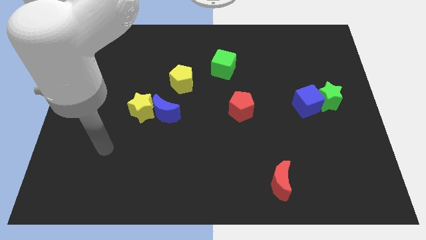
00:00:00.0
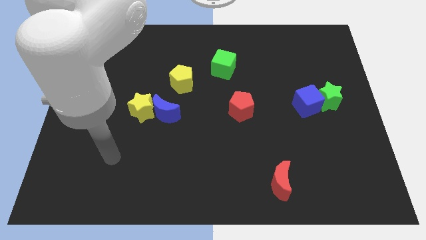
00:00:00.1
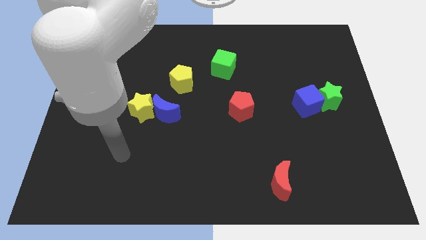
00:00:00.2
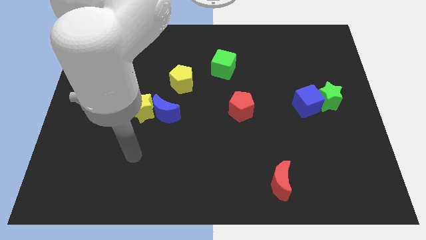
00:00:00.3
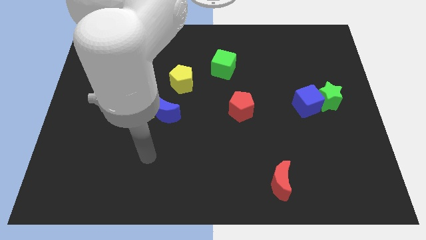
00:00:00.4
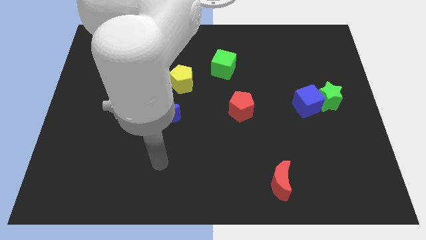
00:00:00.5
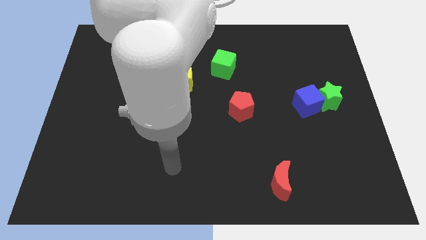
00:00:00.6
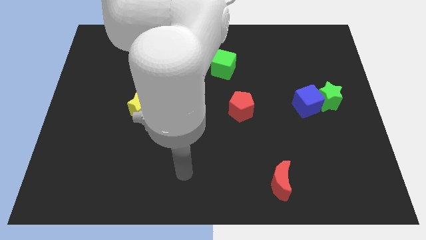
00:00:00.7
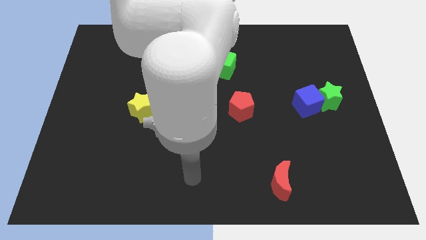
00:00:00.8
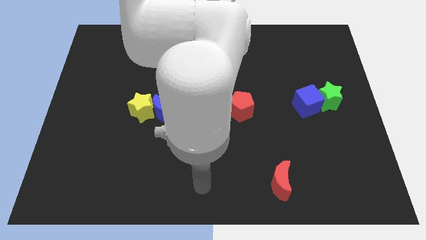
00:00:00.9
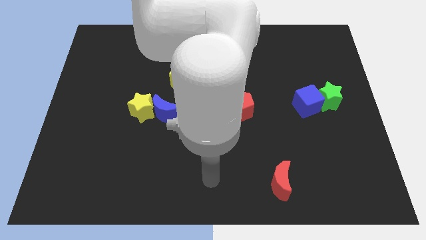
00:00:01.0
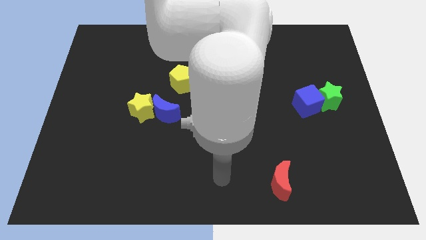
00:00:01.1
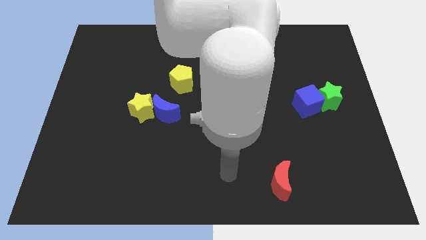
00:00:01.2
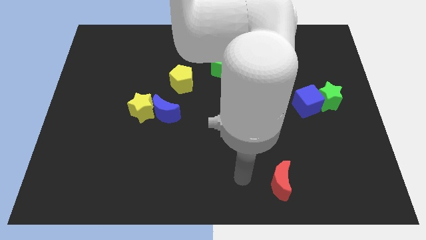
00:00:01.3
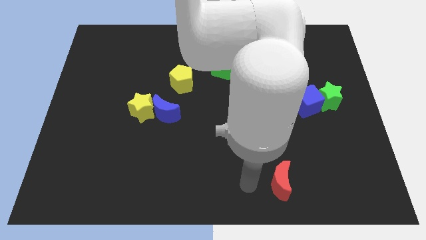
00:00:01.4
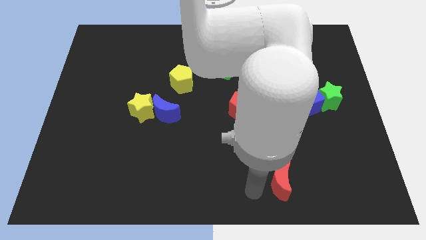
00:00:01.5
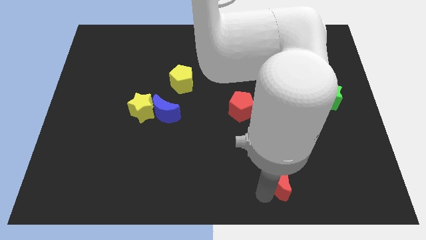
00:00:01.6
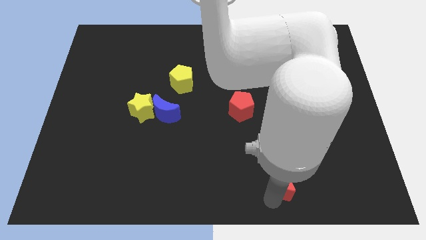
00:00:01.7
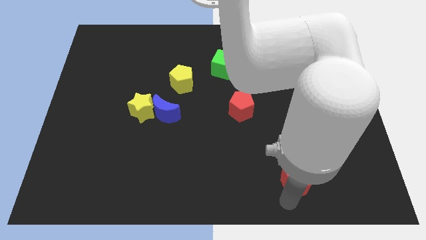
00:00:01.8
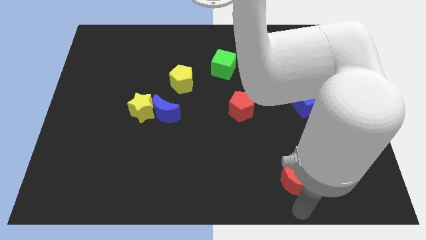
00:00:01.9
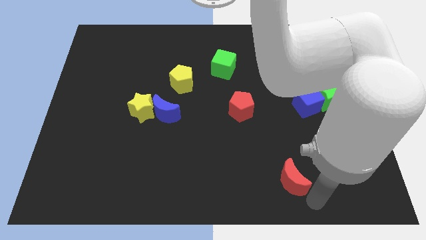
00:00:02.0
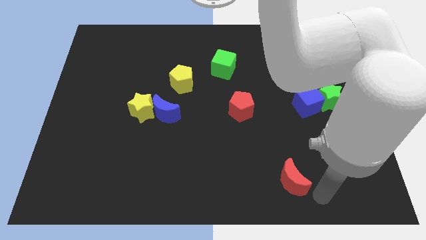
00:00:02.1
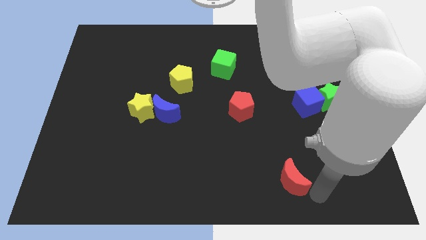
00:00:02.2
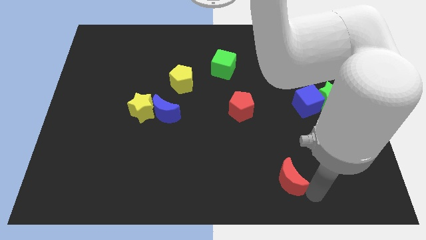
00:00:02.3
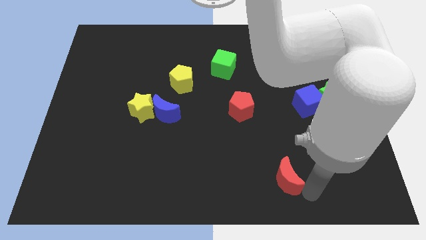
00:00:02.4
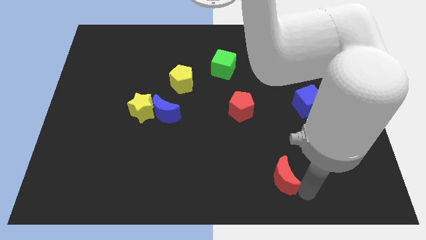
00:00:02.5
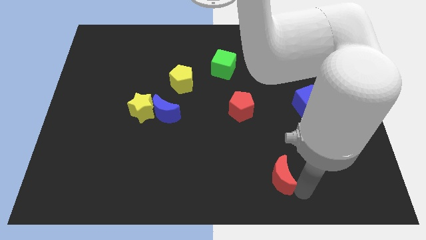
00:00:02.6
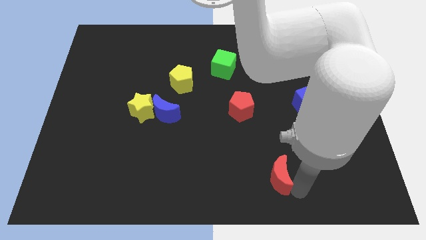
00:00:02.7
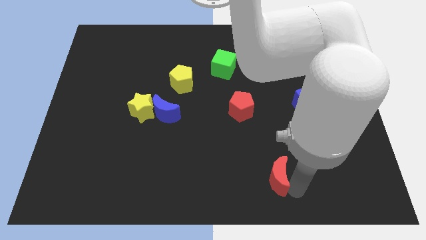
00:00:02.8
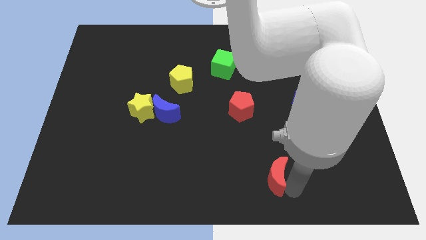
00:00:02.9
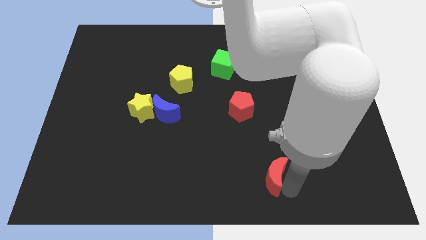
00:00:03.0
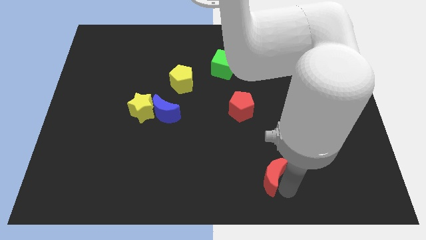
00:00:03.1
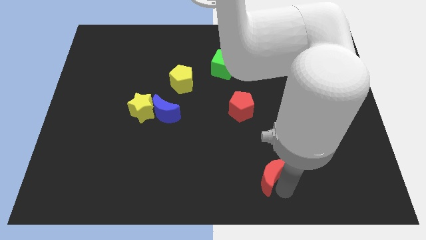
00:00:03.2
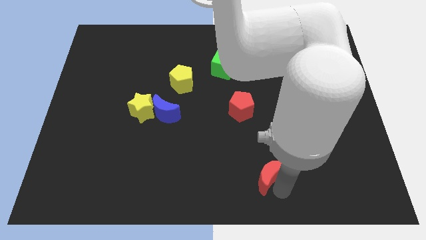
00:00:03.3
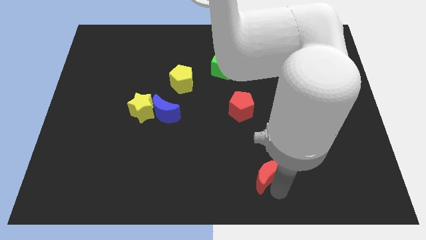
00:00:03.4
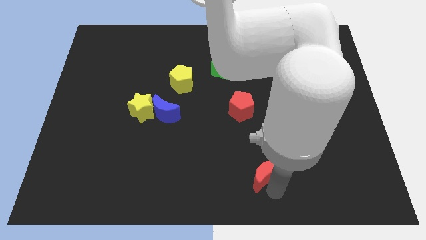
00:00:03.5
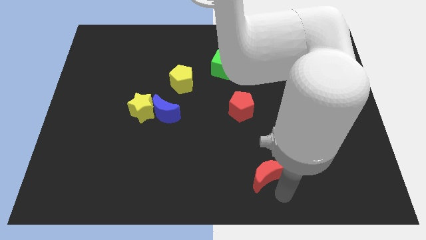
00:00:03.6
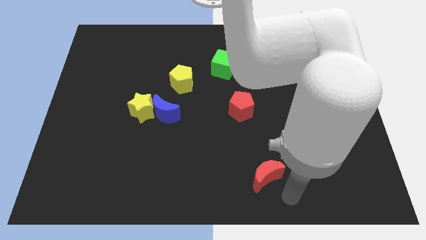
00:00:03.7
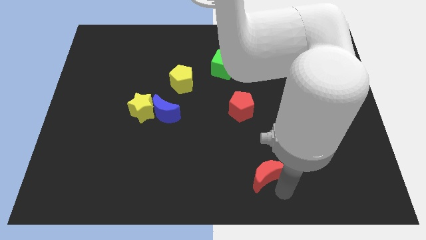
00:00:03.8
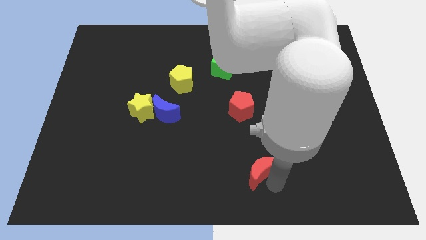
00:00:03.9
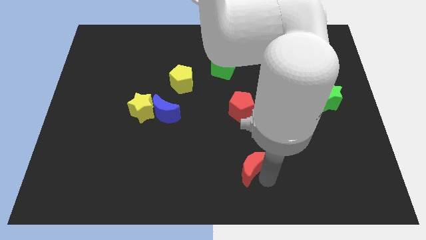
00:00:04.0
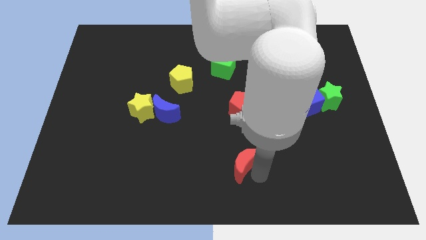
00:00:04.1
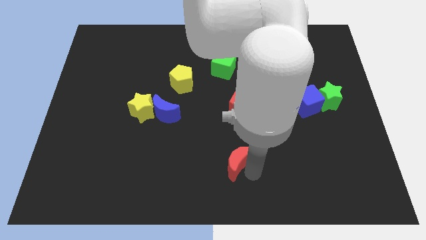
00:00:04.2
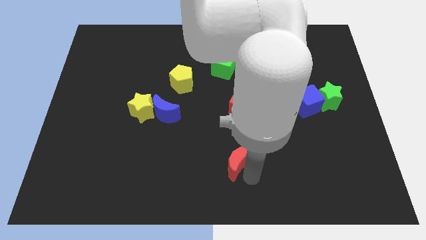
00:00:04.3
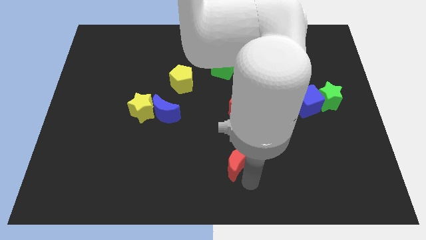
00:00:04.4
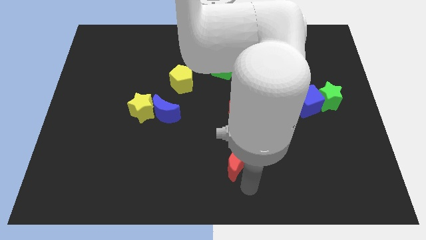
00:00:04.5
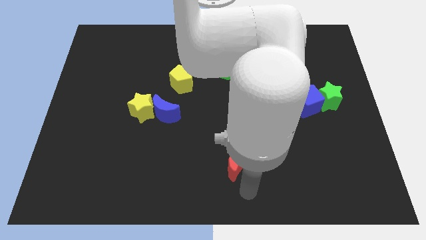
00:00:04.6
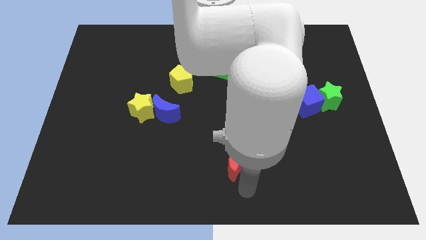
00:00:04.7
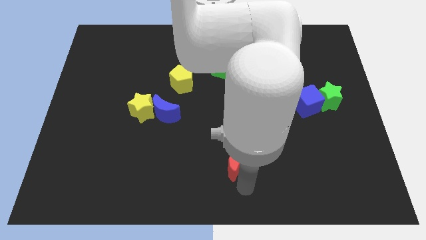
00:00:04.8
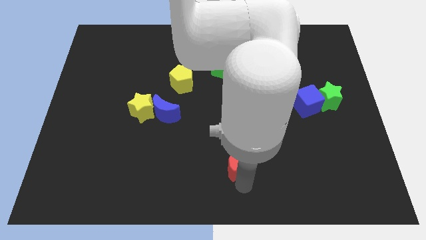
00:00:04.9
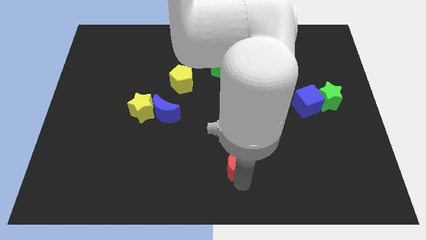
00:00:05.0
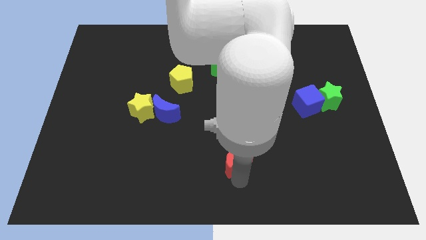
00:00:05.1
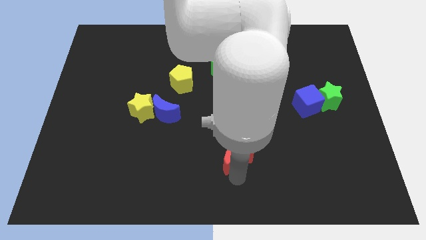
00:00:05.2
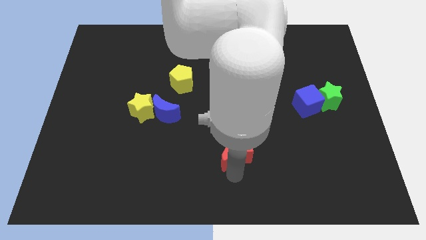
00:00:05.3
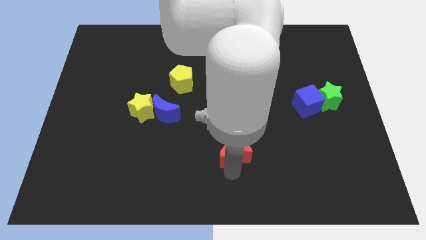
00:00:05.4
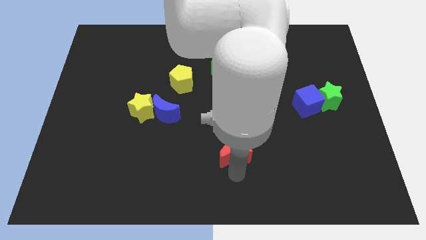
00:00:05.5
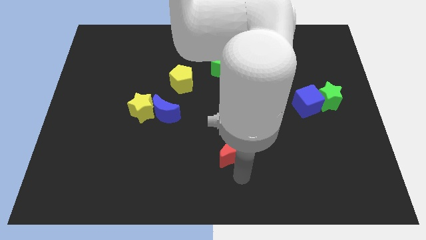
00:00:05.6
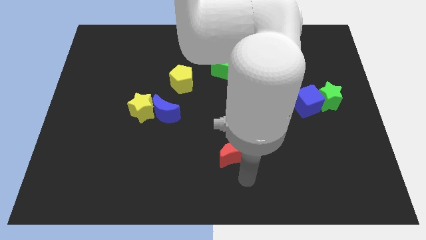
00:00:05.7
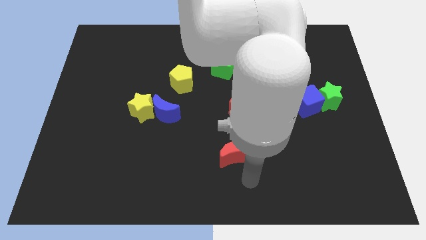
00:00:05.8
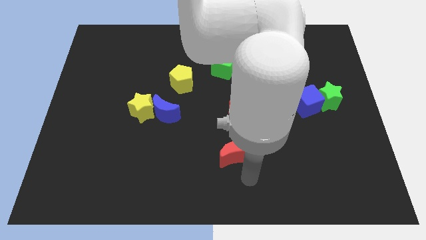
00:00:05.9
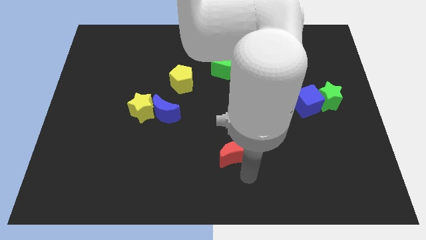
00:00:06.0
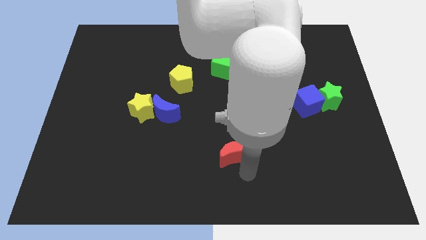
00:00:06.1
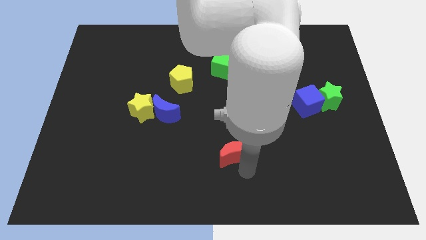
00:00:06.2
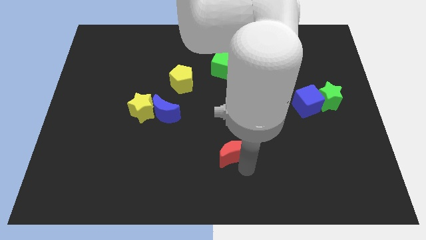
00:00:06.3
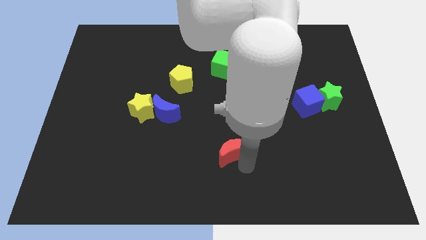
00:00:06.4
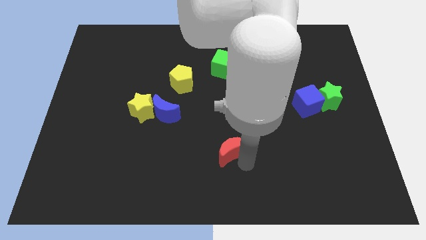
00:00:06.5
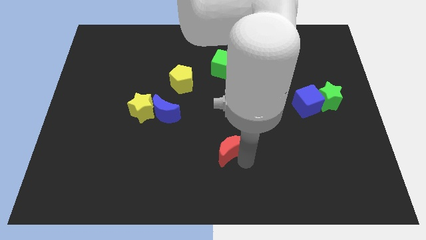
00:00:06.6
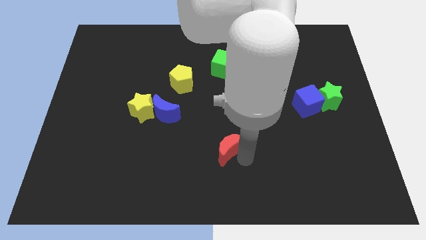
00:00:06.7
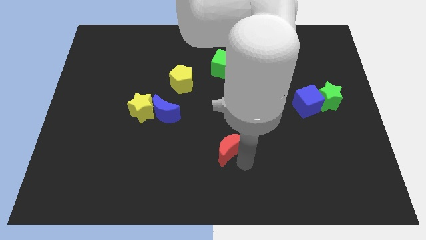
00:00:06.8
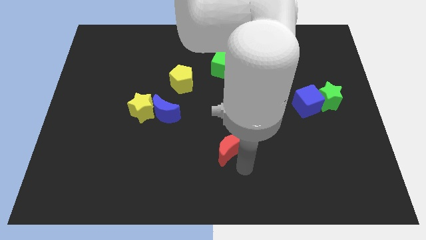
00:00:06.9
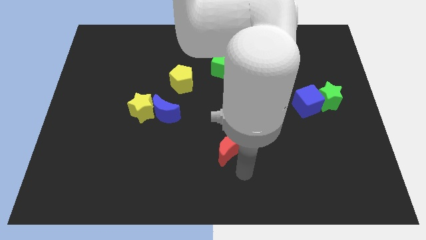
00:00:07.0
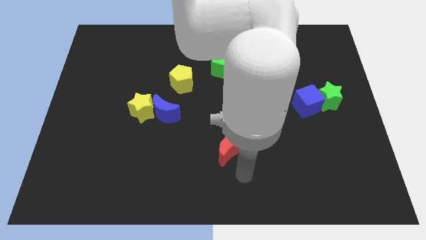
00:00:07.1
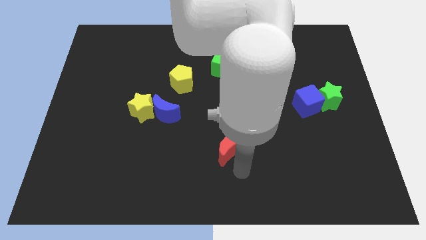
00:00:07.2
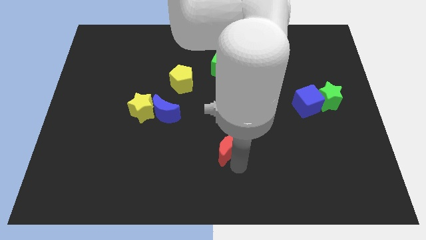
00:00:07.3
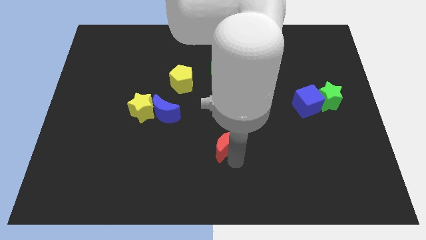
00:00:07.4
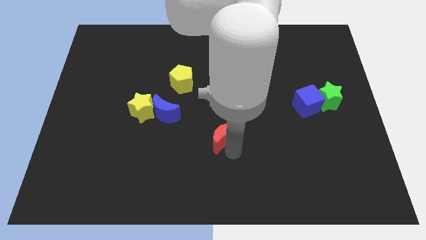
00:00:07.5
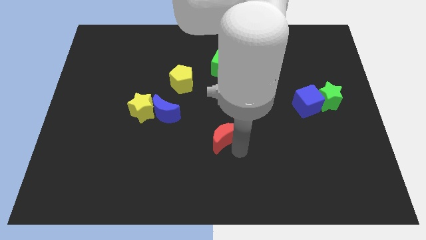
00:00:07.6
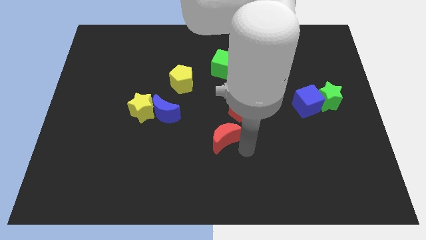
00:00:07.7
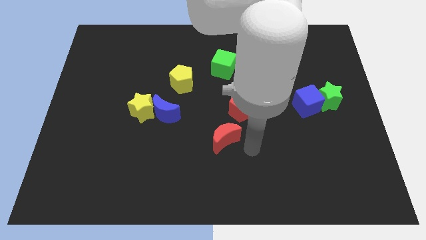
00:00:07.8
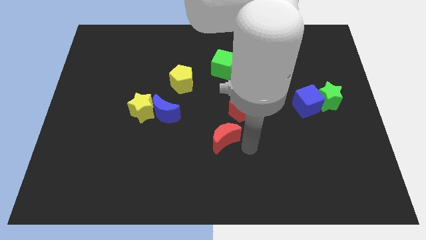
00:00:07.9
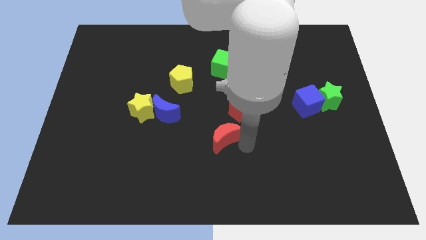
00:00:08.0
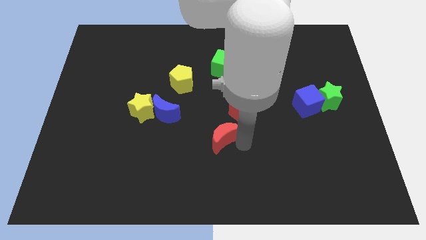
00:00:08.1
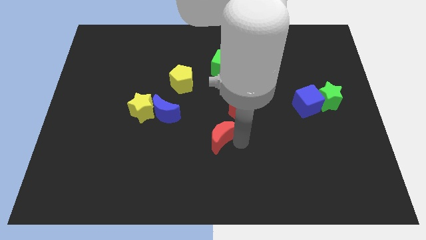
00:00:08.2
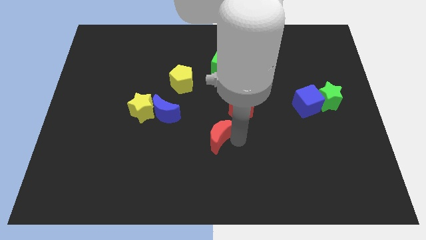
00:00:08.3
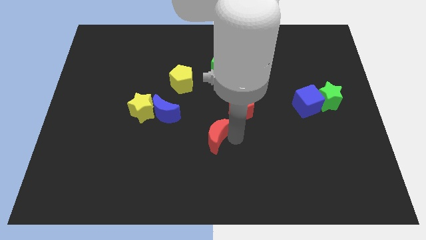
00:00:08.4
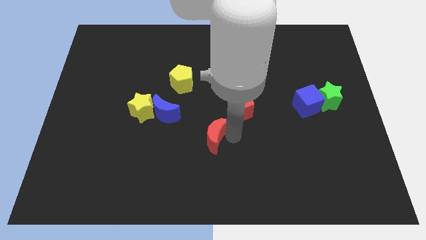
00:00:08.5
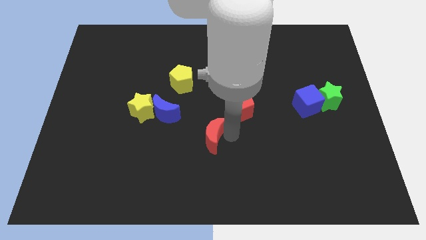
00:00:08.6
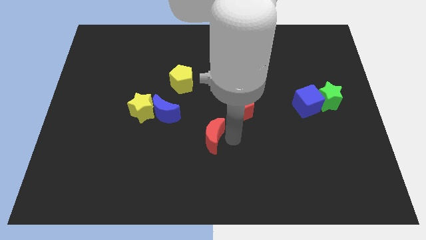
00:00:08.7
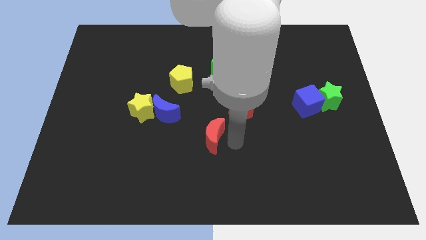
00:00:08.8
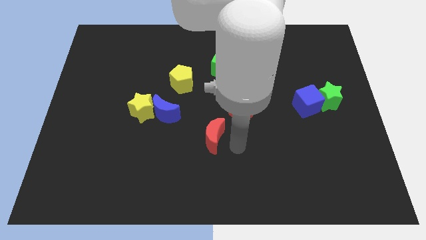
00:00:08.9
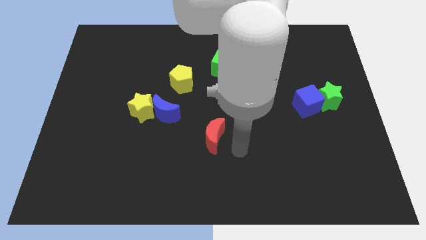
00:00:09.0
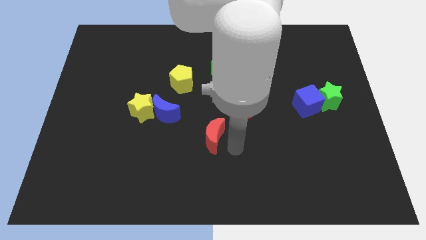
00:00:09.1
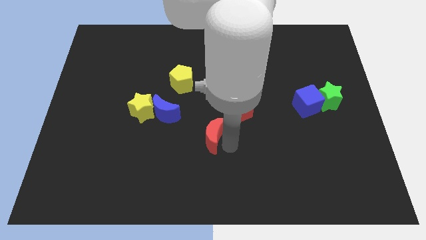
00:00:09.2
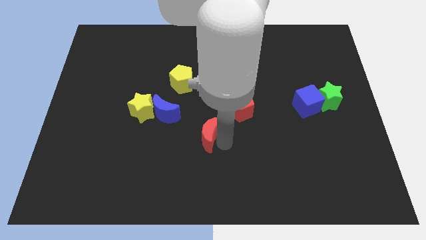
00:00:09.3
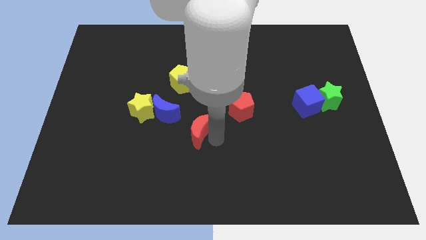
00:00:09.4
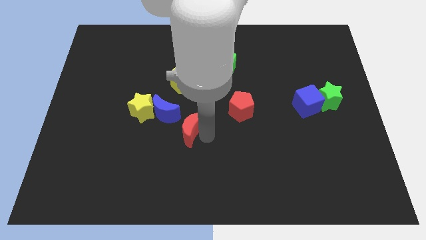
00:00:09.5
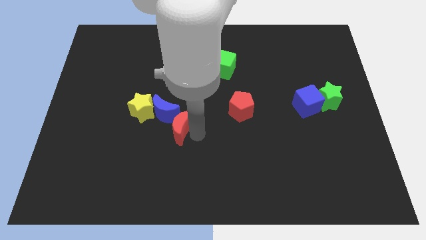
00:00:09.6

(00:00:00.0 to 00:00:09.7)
put the red moon next to the blue moon
